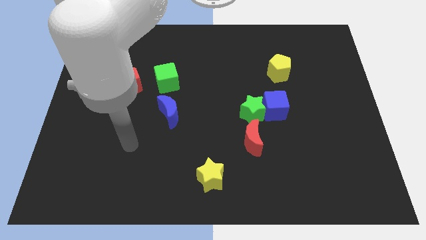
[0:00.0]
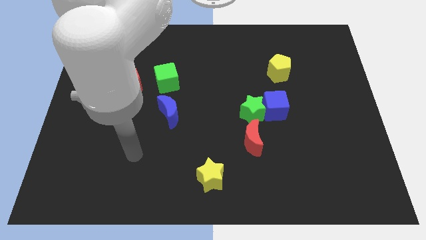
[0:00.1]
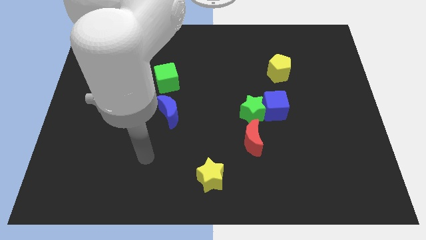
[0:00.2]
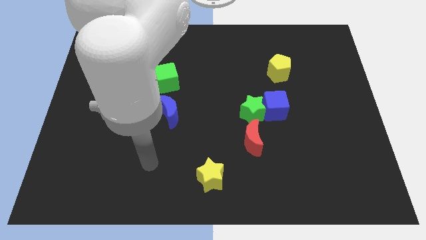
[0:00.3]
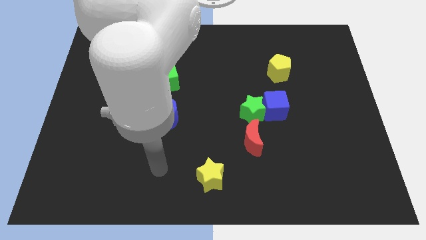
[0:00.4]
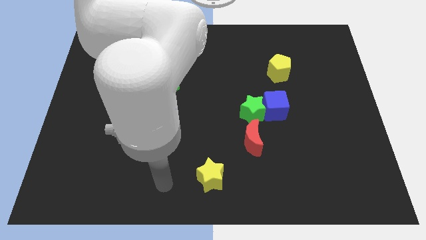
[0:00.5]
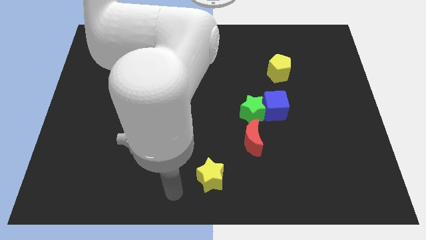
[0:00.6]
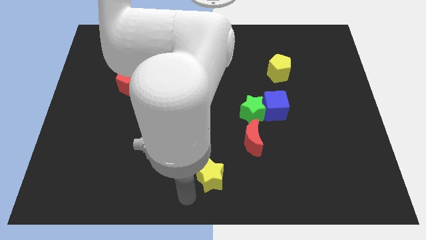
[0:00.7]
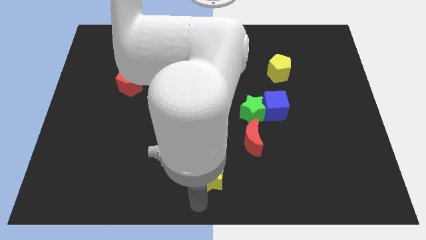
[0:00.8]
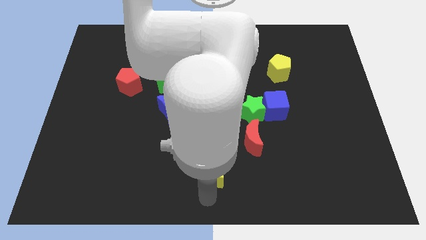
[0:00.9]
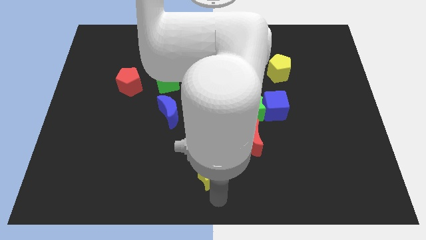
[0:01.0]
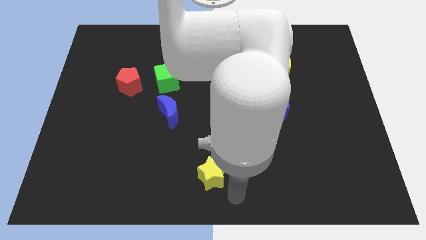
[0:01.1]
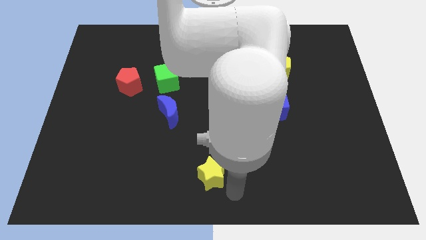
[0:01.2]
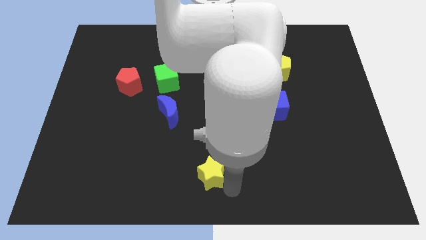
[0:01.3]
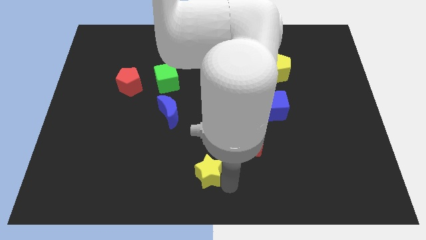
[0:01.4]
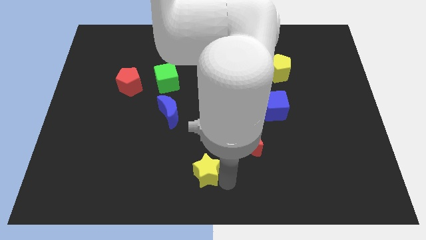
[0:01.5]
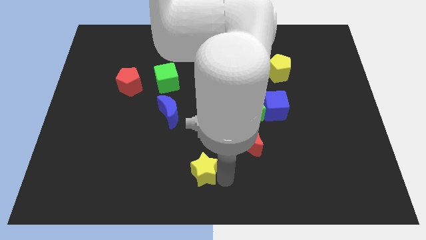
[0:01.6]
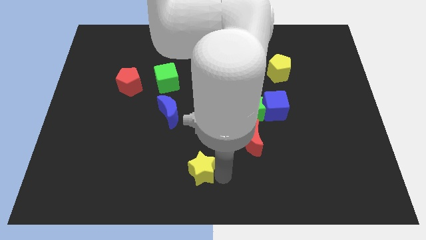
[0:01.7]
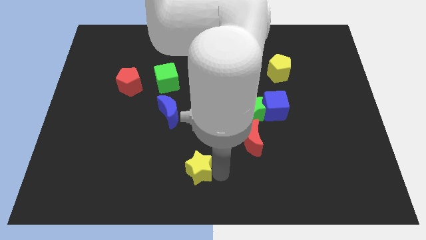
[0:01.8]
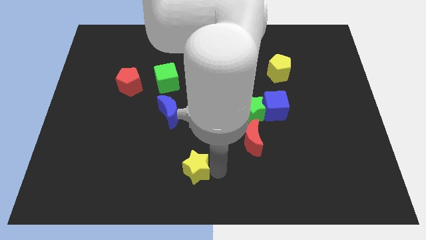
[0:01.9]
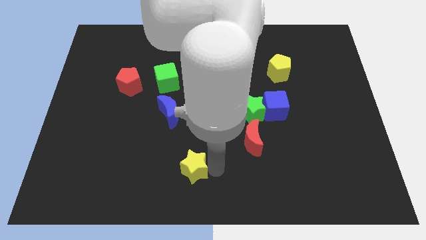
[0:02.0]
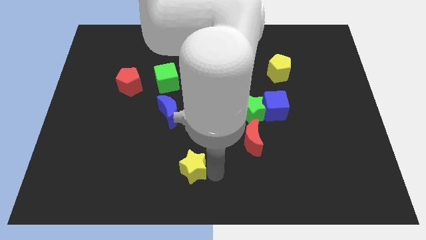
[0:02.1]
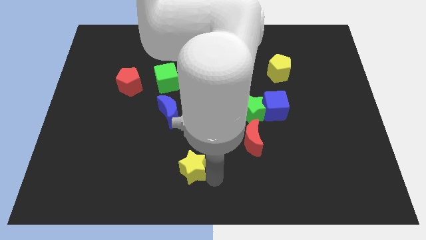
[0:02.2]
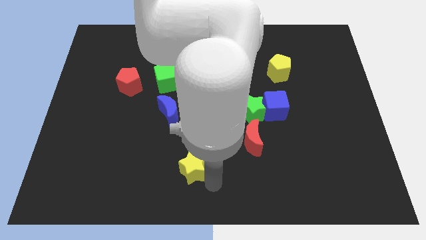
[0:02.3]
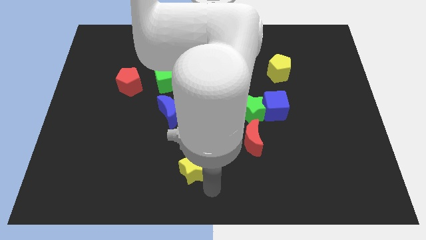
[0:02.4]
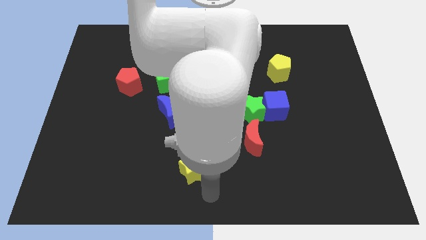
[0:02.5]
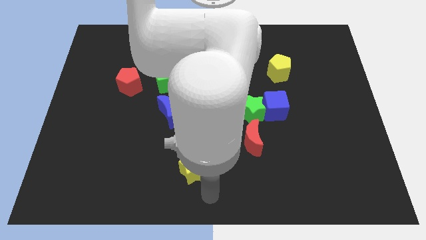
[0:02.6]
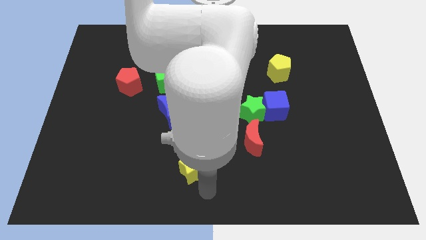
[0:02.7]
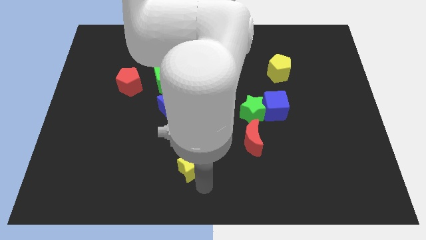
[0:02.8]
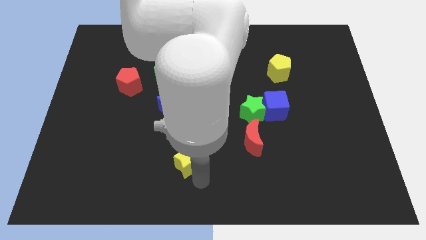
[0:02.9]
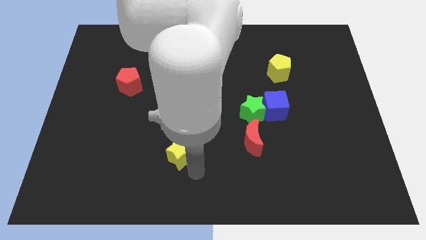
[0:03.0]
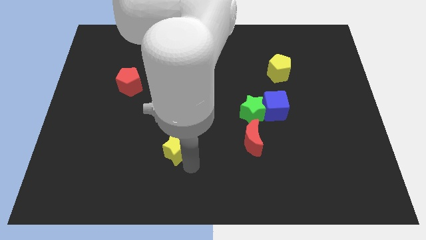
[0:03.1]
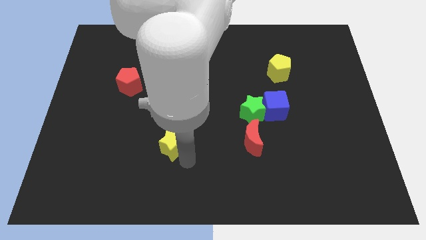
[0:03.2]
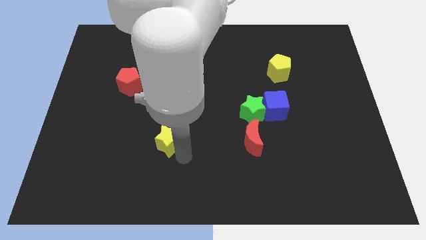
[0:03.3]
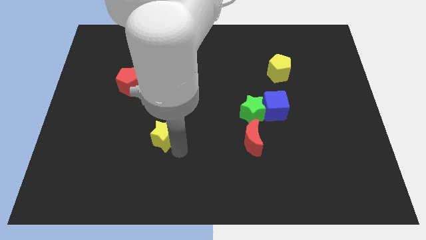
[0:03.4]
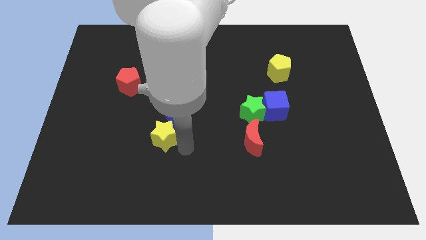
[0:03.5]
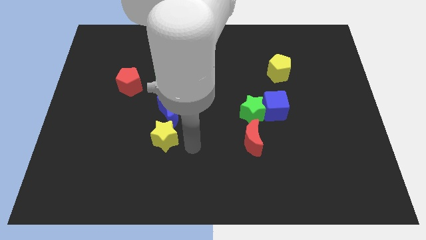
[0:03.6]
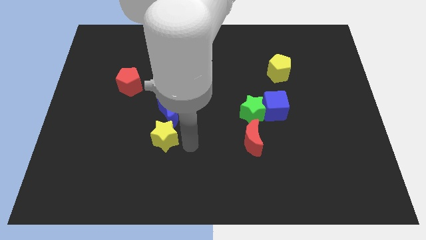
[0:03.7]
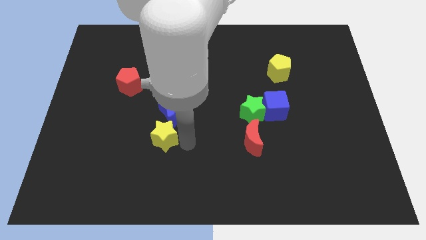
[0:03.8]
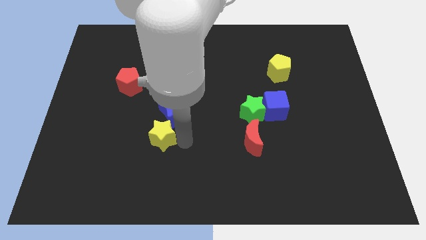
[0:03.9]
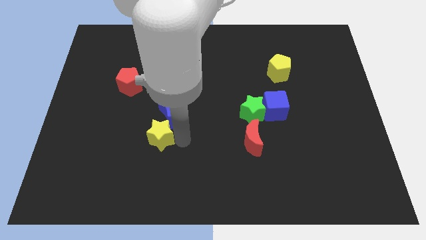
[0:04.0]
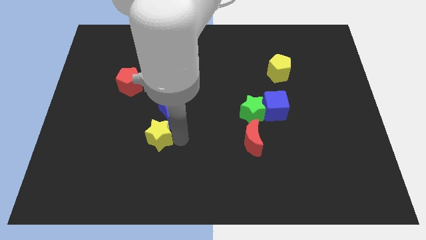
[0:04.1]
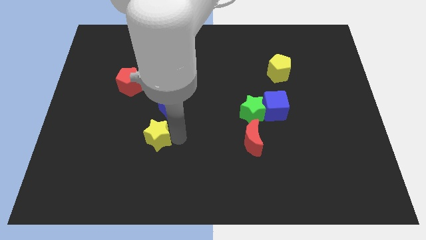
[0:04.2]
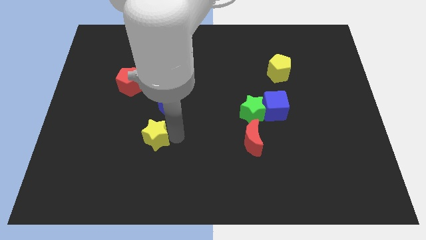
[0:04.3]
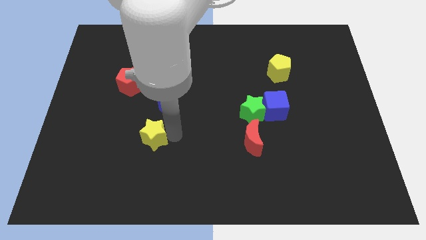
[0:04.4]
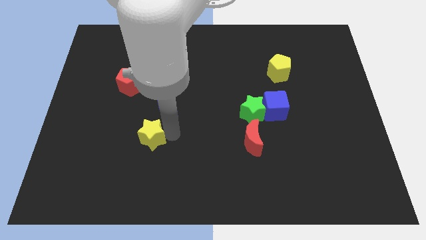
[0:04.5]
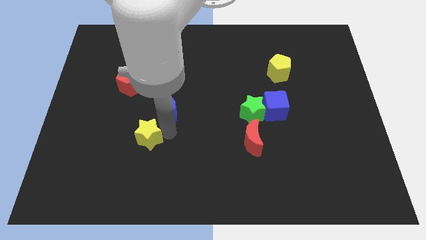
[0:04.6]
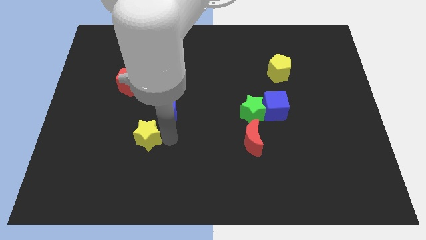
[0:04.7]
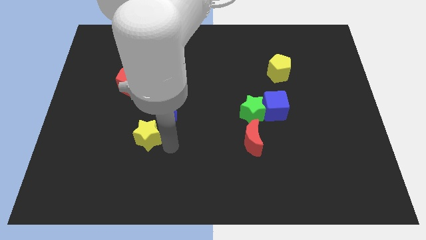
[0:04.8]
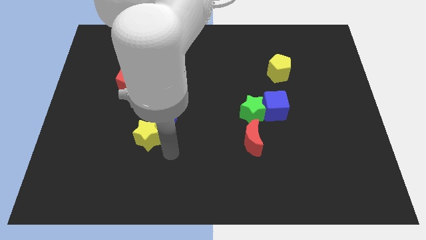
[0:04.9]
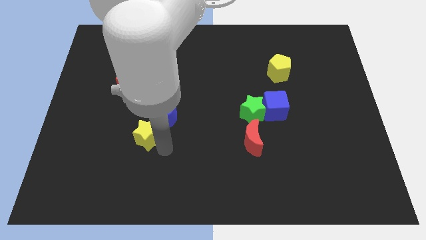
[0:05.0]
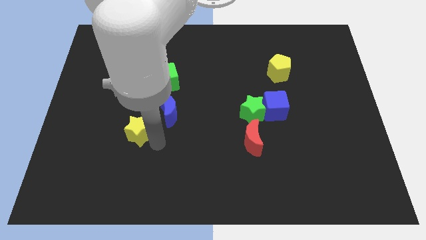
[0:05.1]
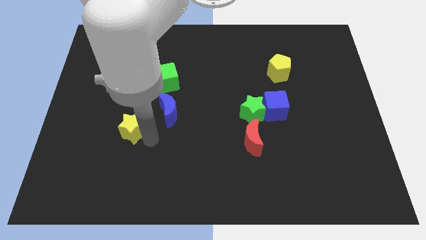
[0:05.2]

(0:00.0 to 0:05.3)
push the yellow star below the red pentagon

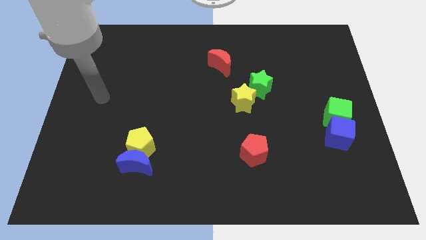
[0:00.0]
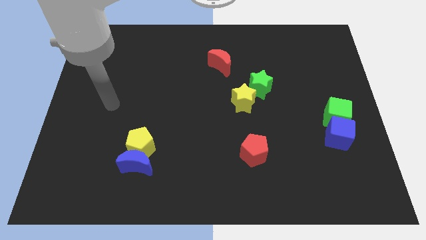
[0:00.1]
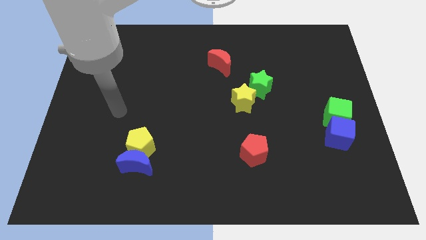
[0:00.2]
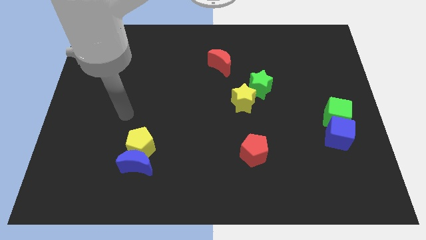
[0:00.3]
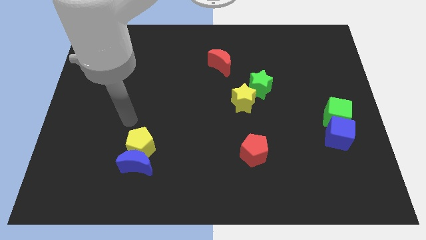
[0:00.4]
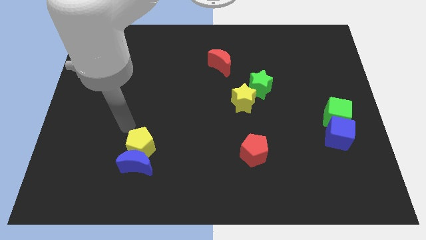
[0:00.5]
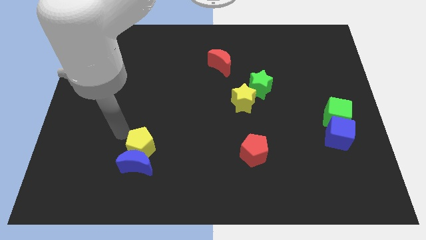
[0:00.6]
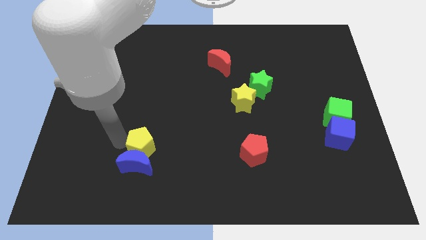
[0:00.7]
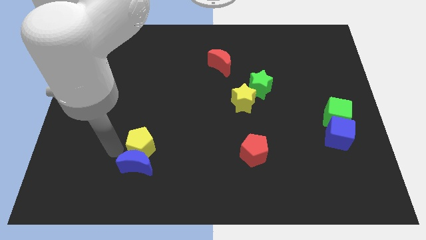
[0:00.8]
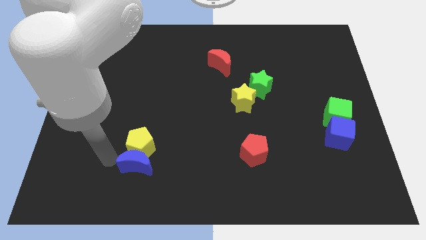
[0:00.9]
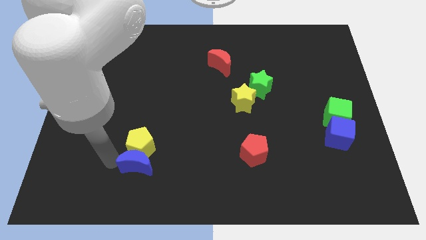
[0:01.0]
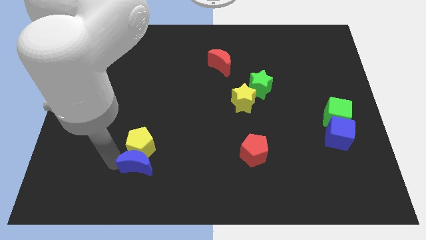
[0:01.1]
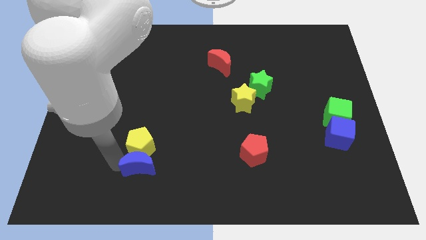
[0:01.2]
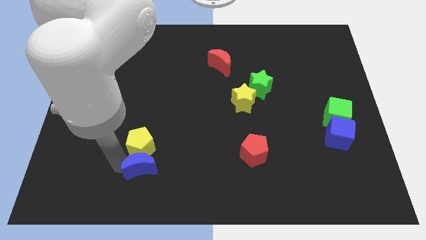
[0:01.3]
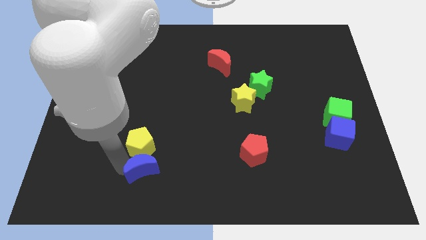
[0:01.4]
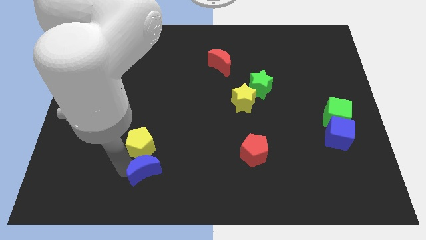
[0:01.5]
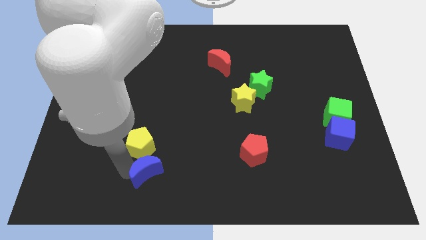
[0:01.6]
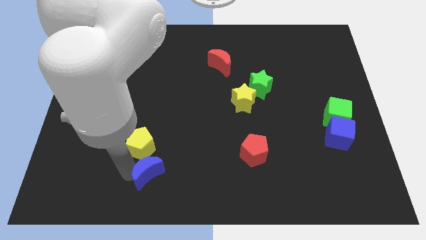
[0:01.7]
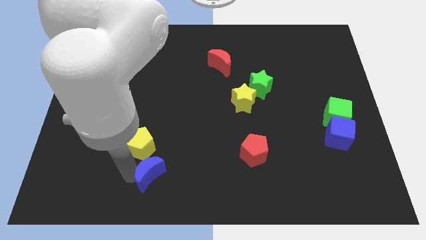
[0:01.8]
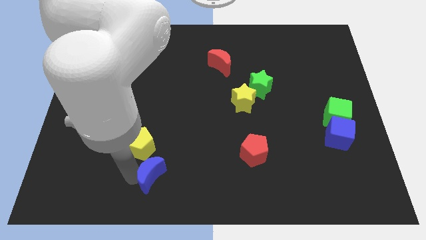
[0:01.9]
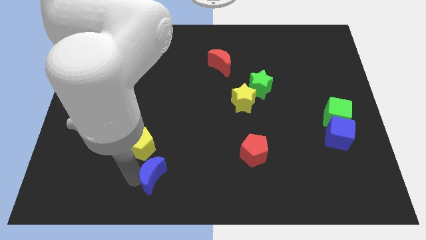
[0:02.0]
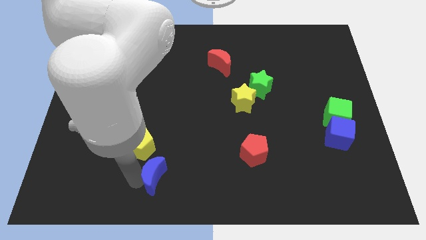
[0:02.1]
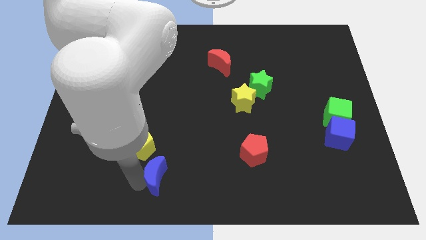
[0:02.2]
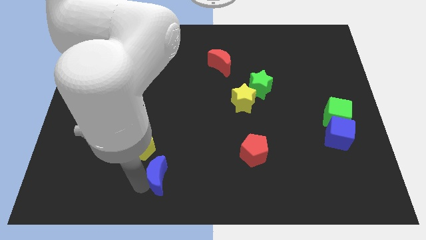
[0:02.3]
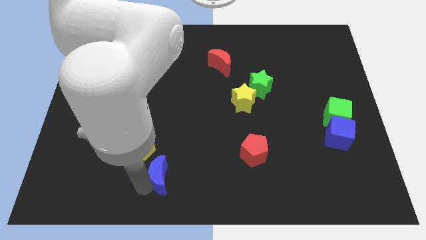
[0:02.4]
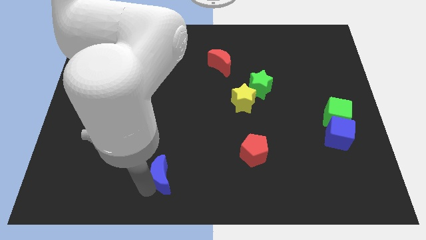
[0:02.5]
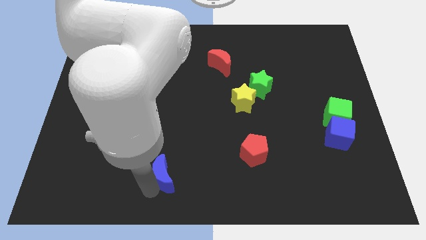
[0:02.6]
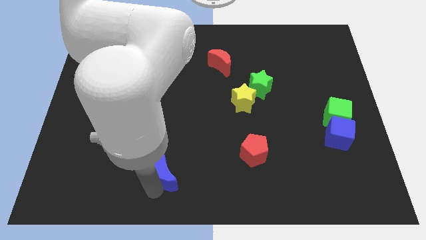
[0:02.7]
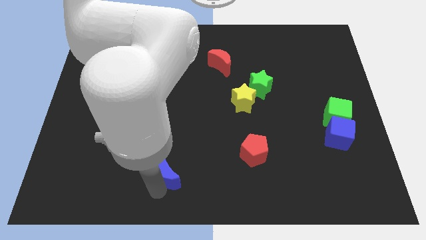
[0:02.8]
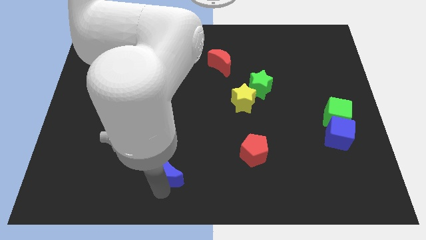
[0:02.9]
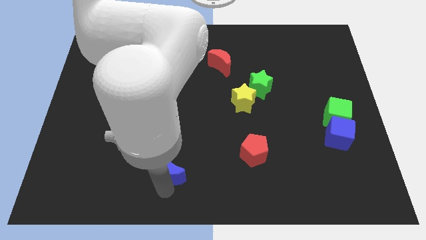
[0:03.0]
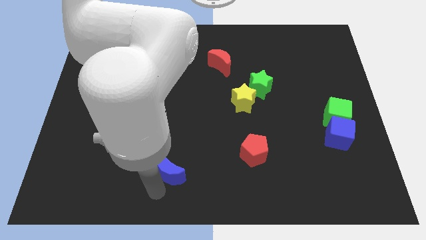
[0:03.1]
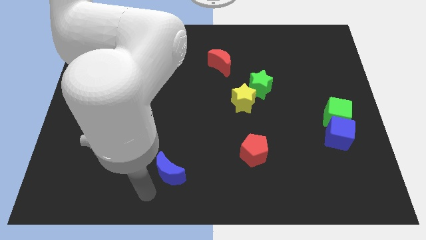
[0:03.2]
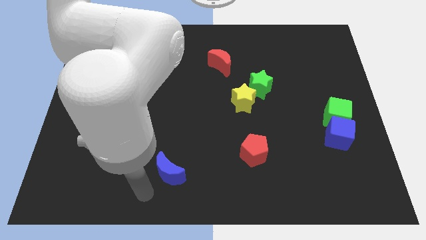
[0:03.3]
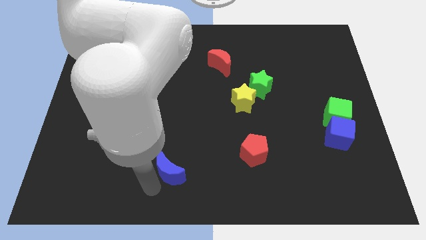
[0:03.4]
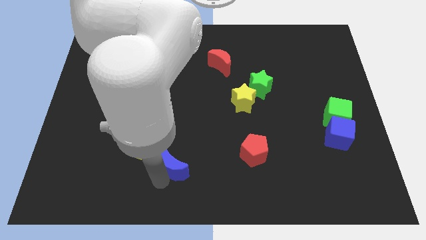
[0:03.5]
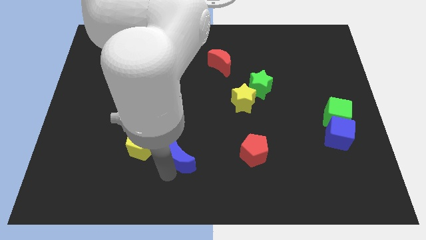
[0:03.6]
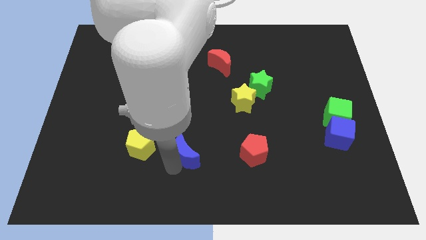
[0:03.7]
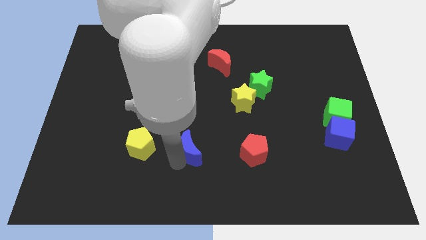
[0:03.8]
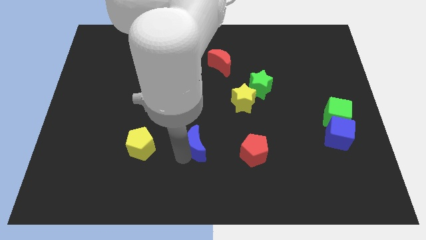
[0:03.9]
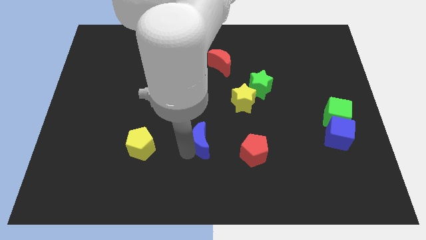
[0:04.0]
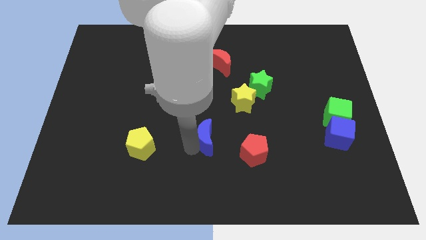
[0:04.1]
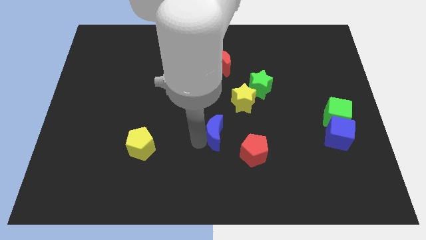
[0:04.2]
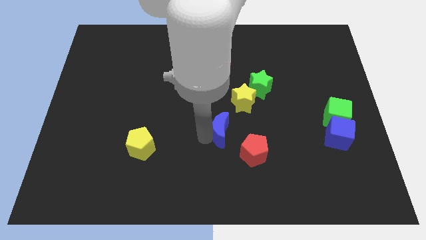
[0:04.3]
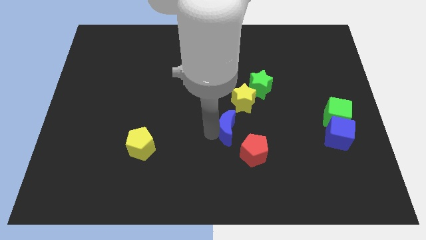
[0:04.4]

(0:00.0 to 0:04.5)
put the blue moon below the yellow star
